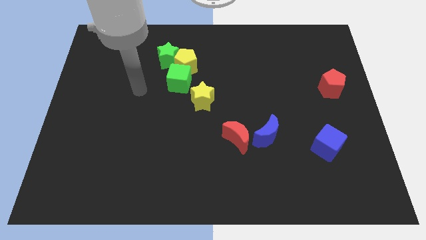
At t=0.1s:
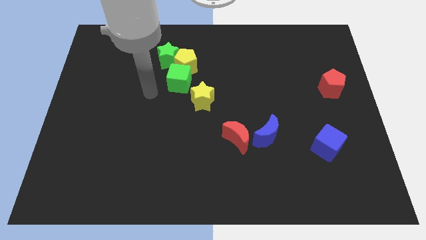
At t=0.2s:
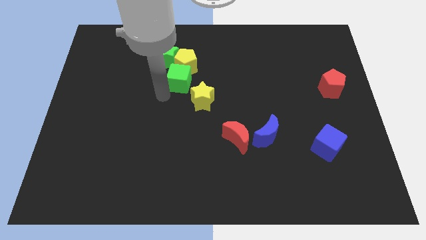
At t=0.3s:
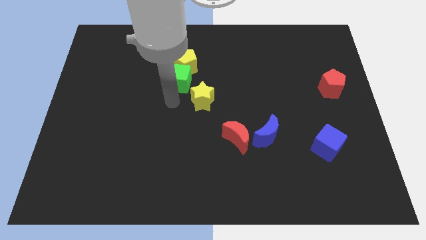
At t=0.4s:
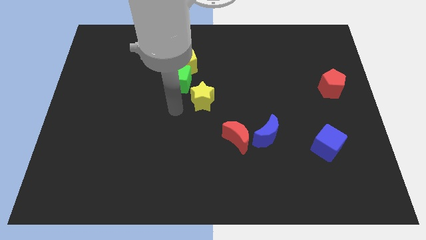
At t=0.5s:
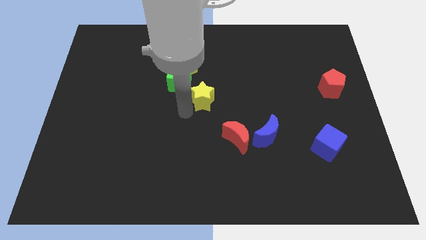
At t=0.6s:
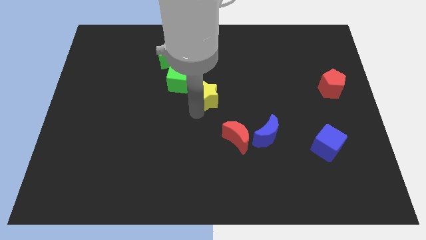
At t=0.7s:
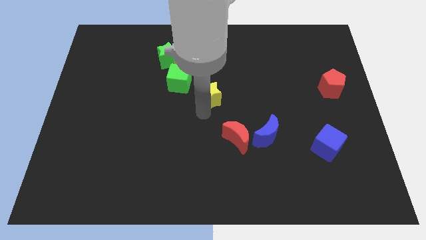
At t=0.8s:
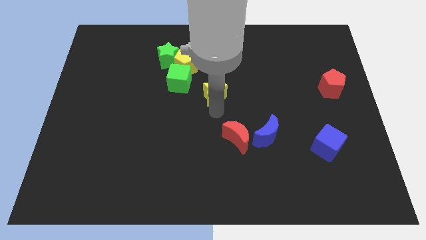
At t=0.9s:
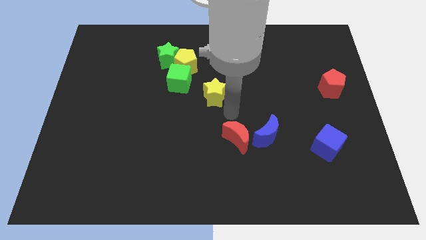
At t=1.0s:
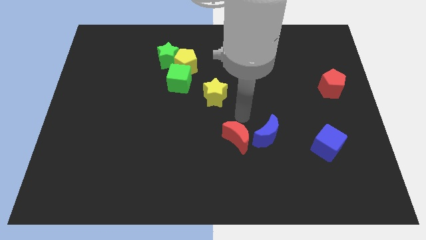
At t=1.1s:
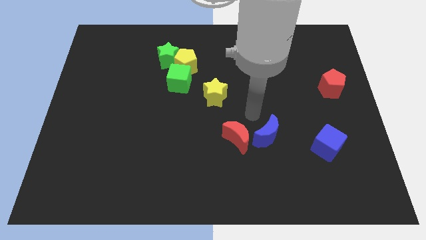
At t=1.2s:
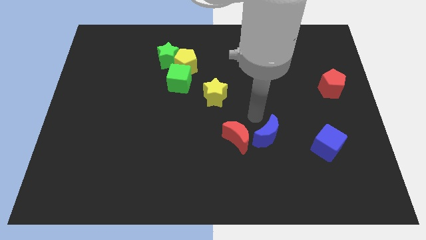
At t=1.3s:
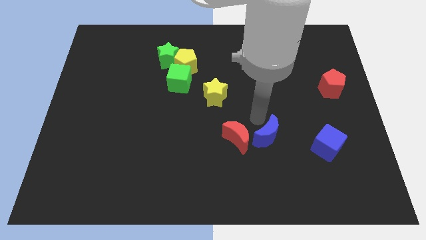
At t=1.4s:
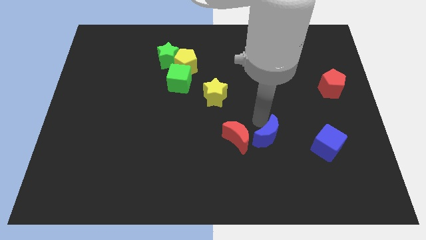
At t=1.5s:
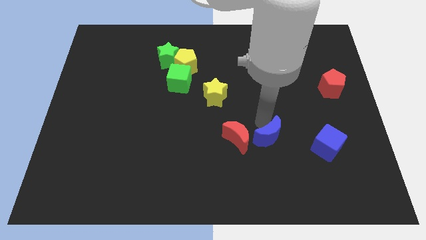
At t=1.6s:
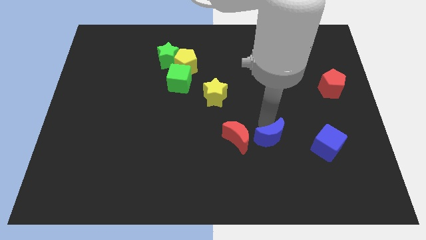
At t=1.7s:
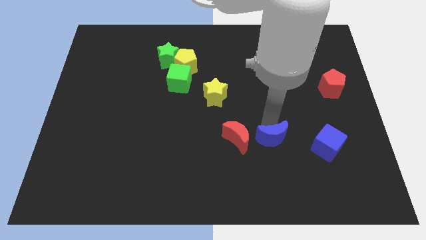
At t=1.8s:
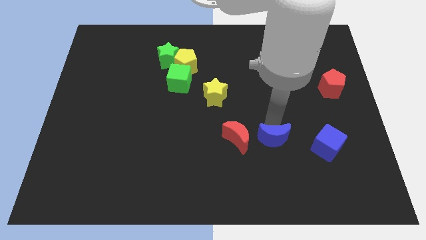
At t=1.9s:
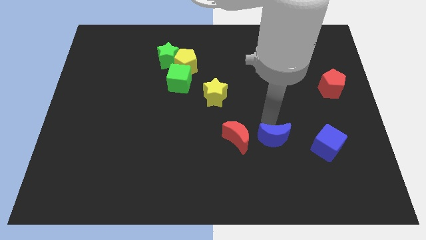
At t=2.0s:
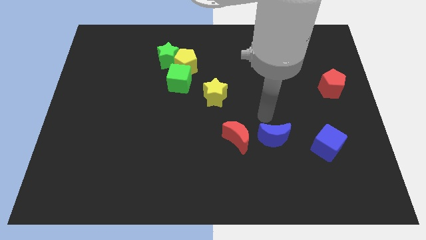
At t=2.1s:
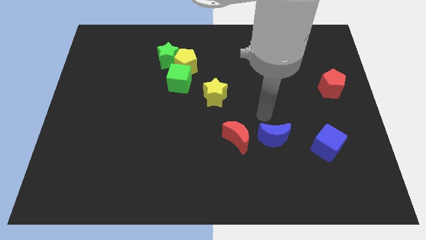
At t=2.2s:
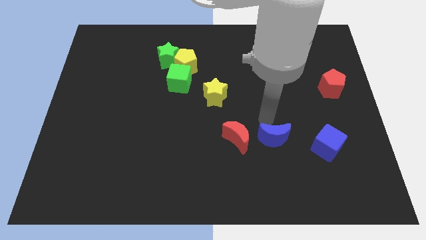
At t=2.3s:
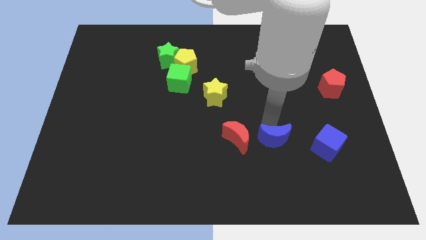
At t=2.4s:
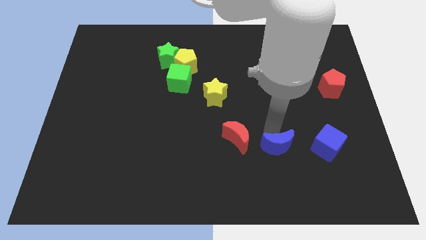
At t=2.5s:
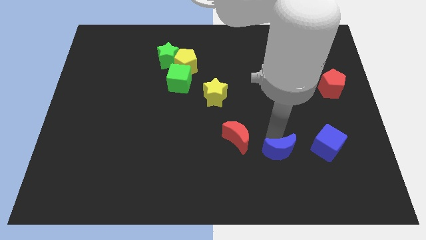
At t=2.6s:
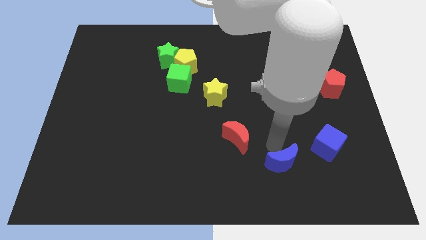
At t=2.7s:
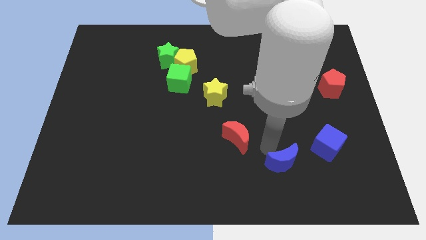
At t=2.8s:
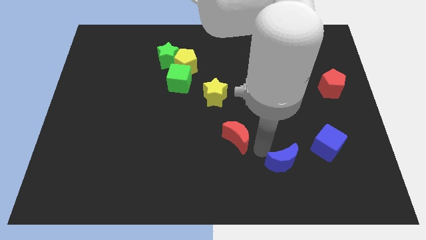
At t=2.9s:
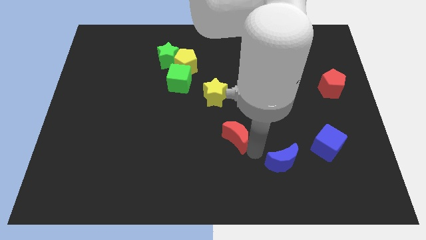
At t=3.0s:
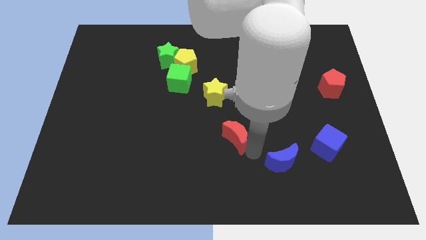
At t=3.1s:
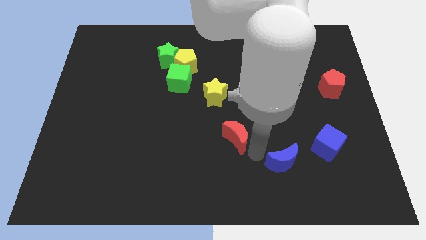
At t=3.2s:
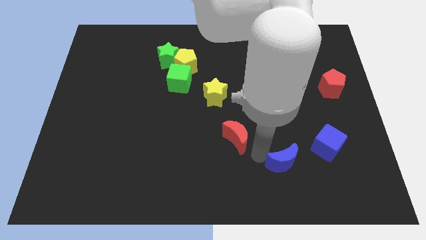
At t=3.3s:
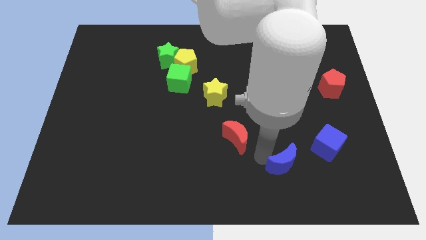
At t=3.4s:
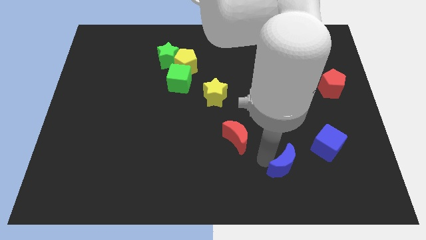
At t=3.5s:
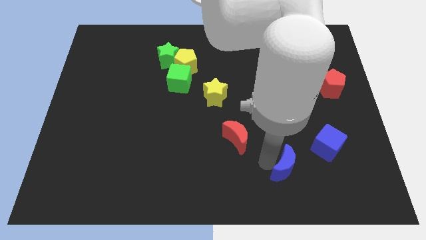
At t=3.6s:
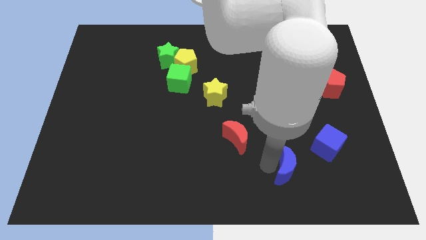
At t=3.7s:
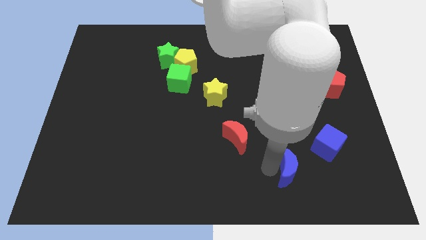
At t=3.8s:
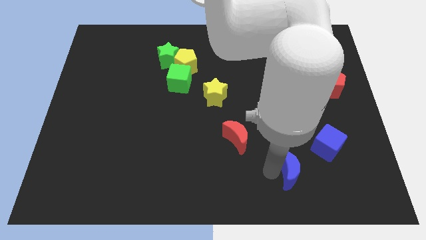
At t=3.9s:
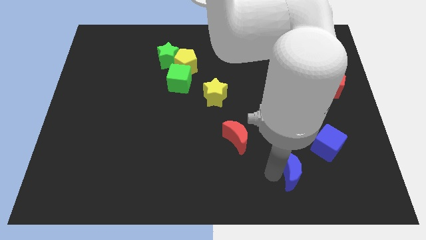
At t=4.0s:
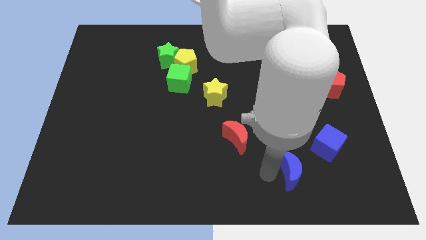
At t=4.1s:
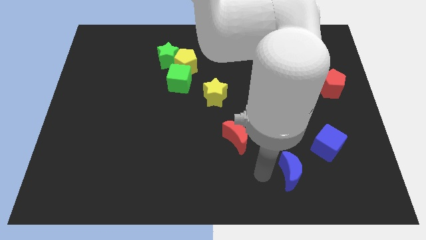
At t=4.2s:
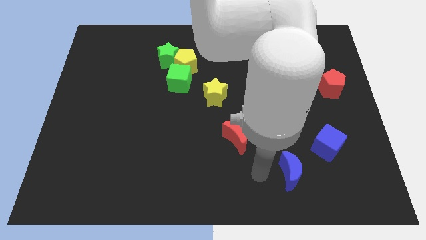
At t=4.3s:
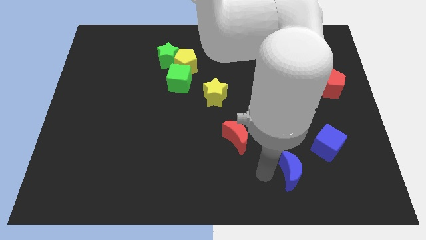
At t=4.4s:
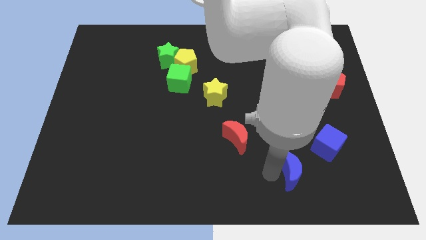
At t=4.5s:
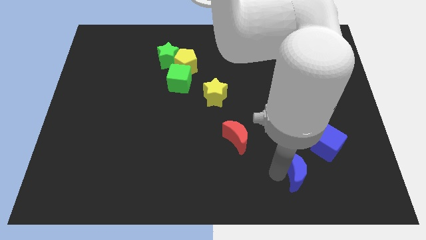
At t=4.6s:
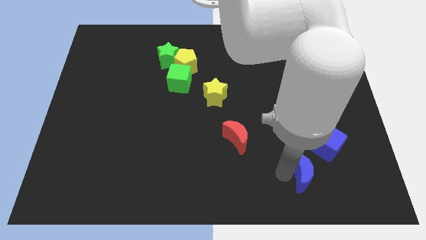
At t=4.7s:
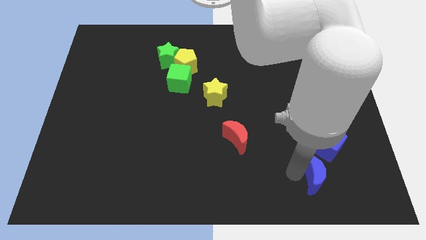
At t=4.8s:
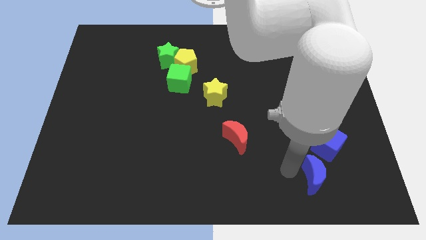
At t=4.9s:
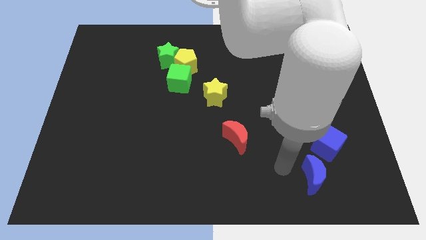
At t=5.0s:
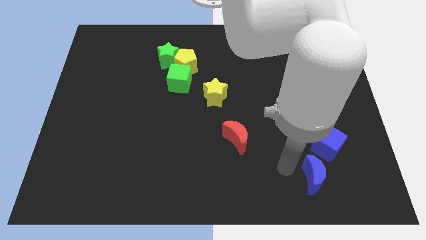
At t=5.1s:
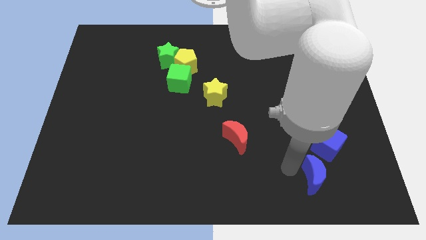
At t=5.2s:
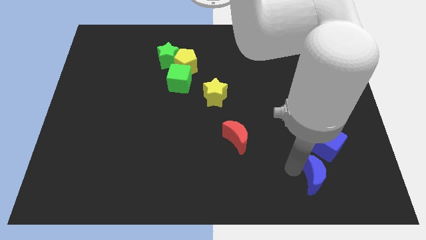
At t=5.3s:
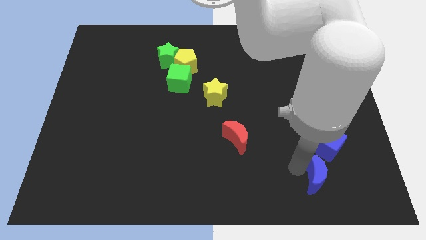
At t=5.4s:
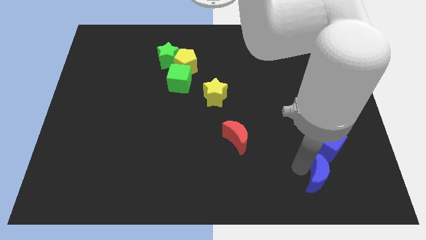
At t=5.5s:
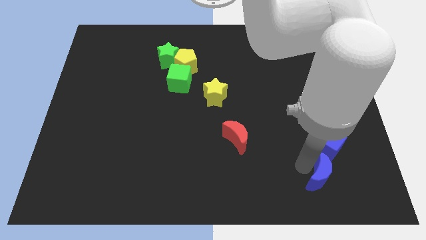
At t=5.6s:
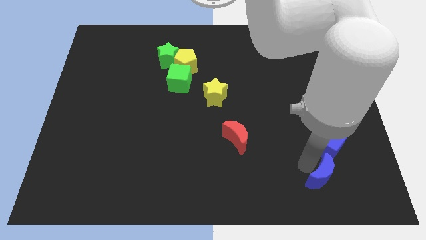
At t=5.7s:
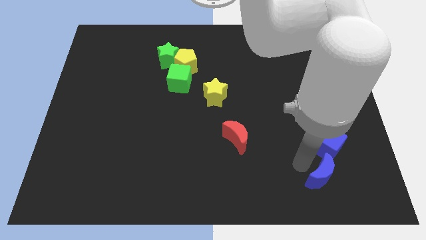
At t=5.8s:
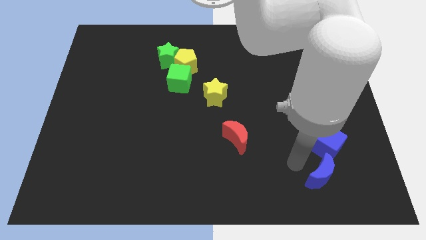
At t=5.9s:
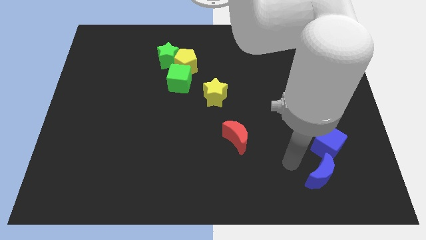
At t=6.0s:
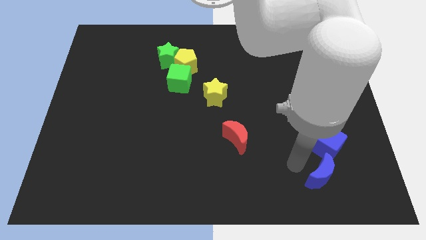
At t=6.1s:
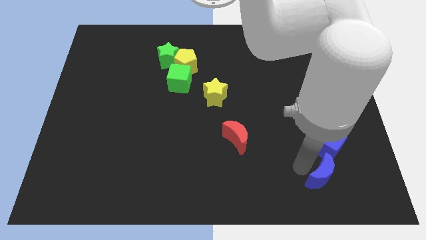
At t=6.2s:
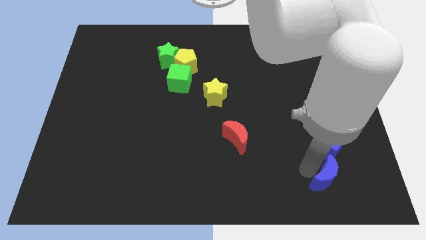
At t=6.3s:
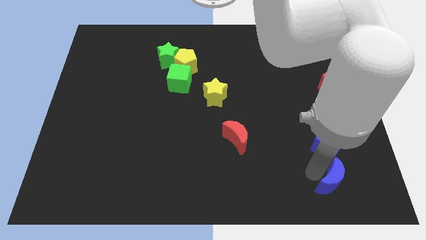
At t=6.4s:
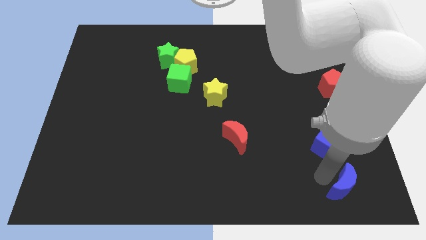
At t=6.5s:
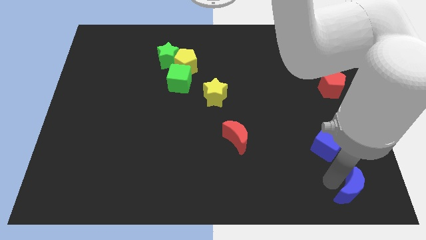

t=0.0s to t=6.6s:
slide the blue moon to the bottom right corner
